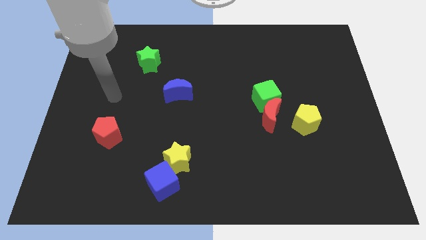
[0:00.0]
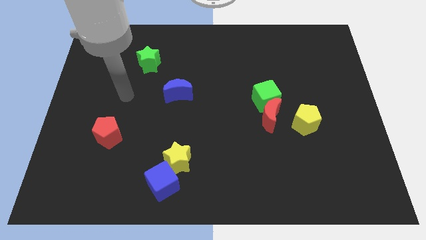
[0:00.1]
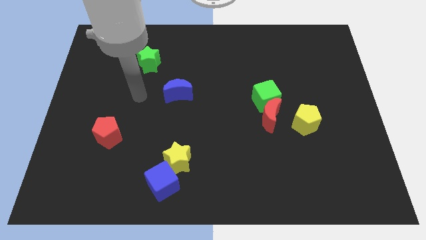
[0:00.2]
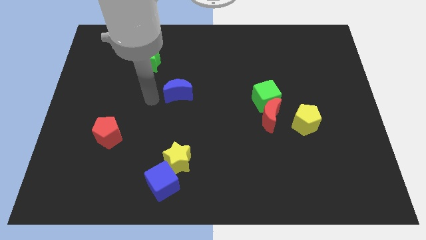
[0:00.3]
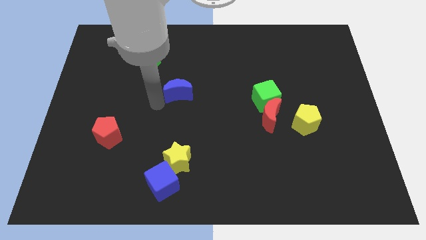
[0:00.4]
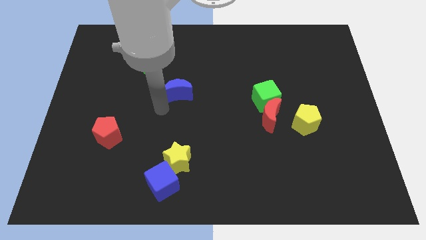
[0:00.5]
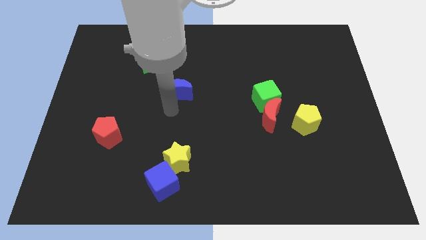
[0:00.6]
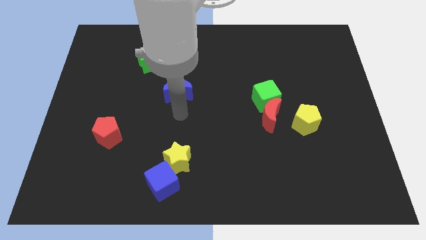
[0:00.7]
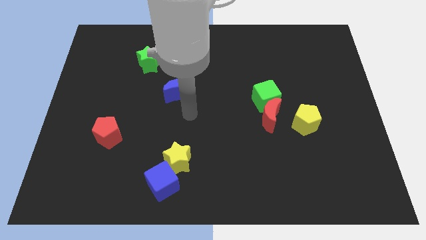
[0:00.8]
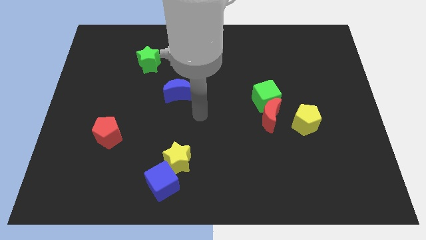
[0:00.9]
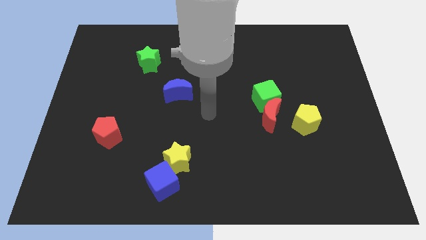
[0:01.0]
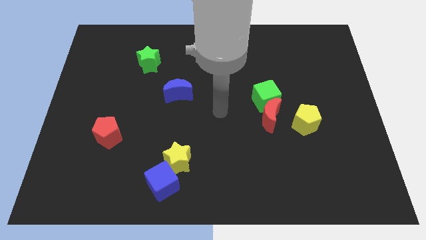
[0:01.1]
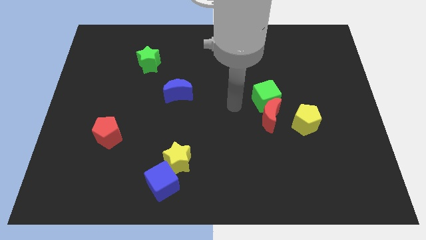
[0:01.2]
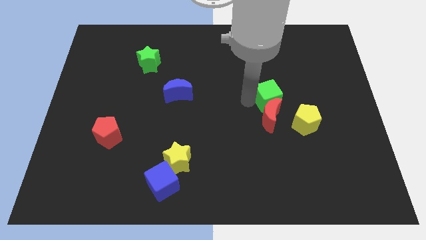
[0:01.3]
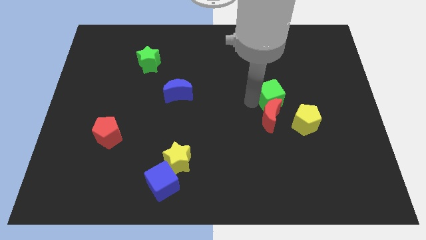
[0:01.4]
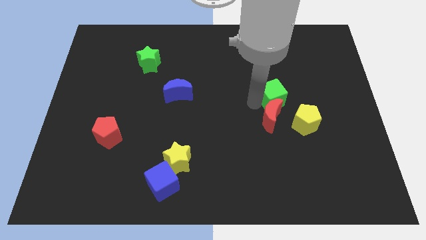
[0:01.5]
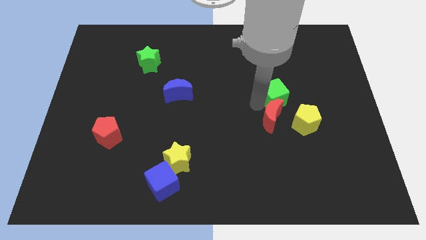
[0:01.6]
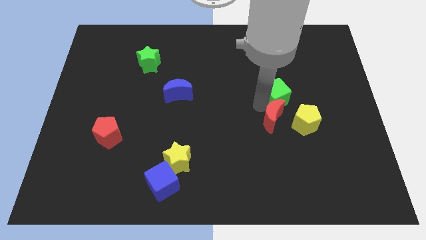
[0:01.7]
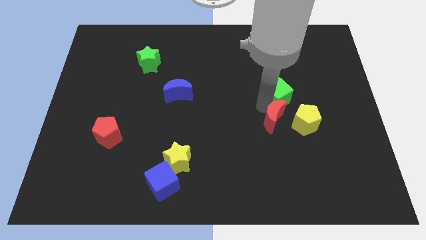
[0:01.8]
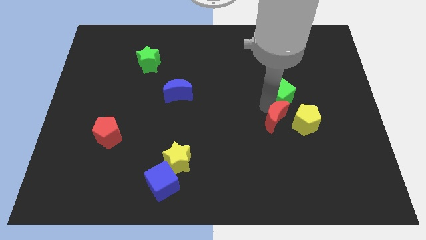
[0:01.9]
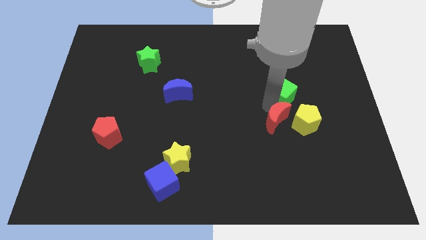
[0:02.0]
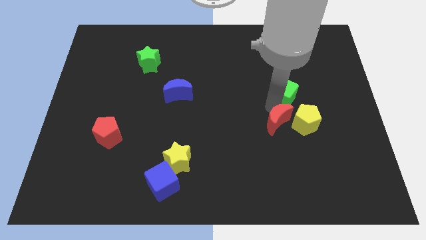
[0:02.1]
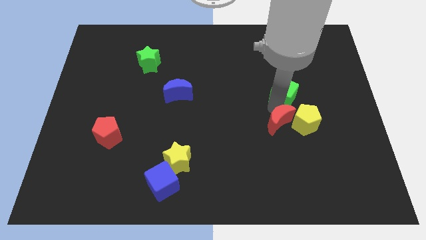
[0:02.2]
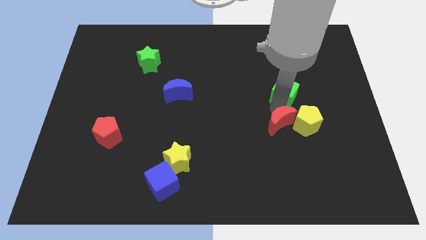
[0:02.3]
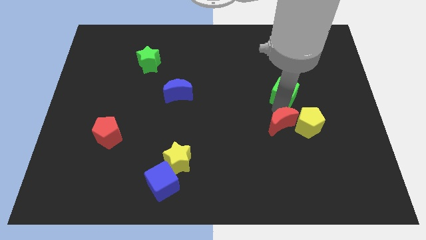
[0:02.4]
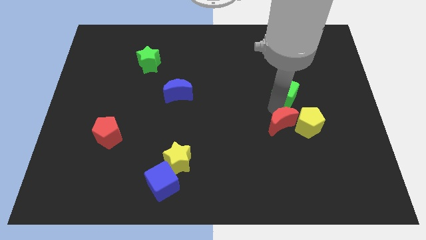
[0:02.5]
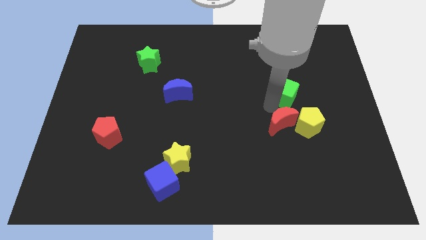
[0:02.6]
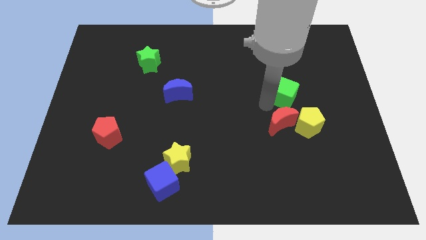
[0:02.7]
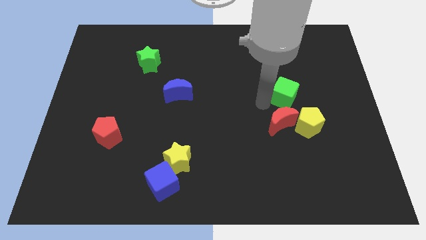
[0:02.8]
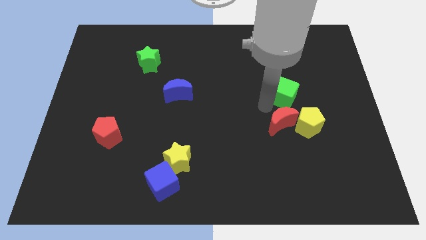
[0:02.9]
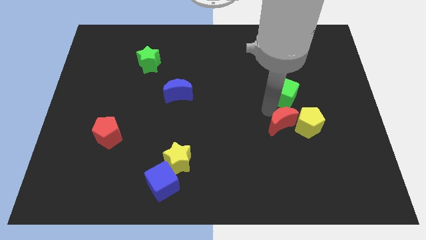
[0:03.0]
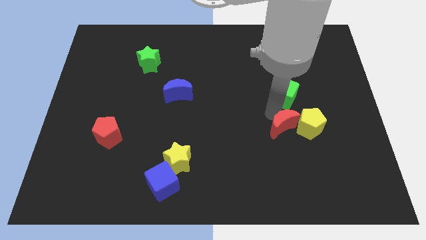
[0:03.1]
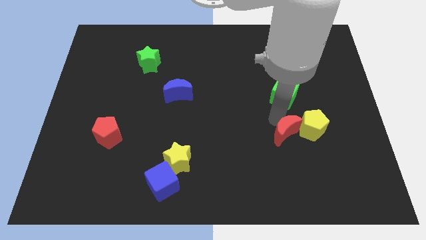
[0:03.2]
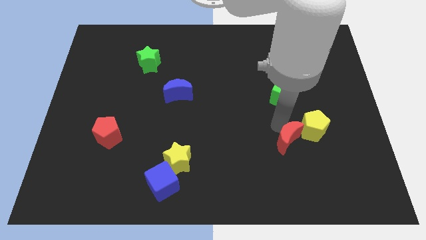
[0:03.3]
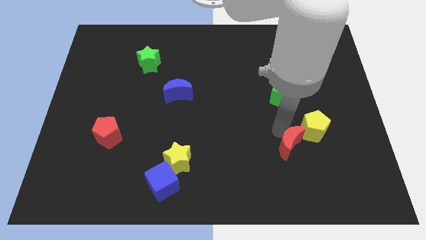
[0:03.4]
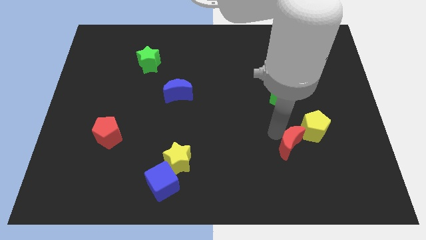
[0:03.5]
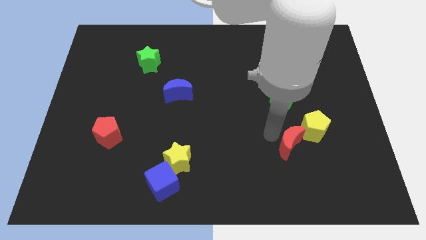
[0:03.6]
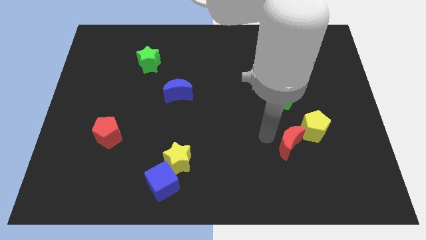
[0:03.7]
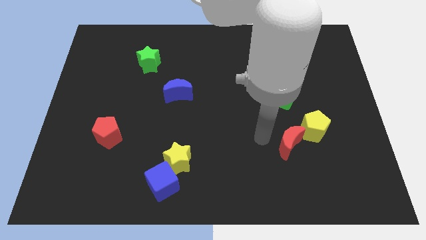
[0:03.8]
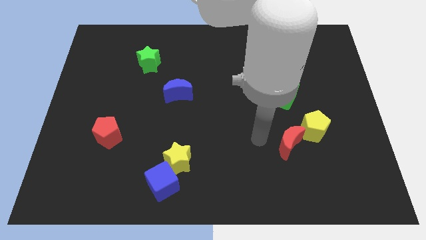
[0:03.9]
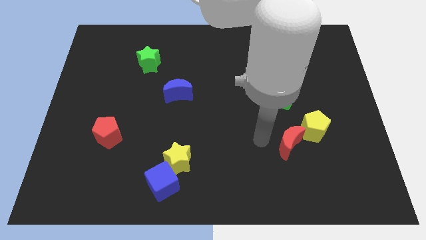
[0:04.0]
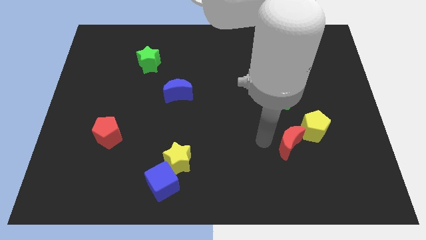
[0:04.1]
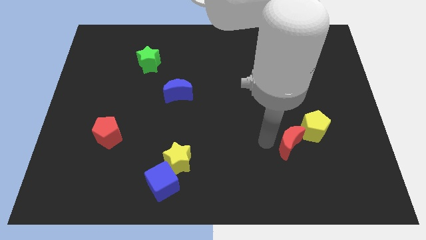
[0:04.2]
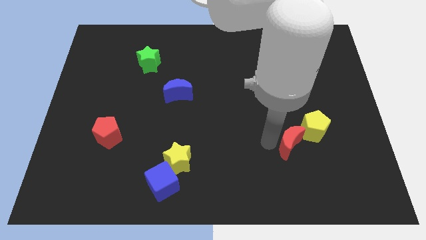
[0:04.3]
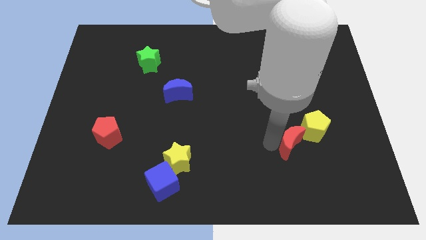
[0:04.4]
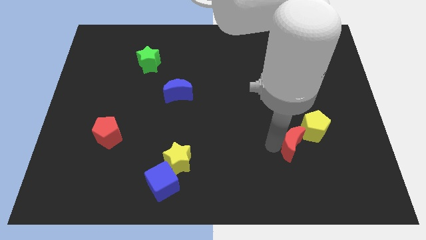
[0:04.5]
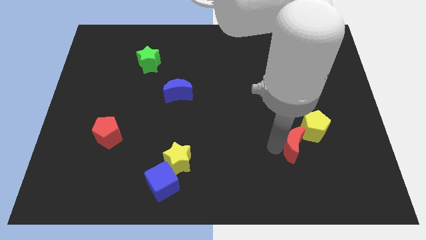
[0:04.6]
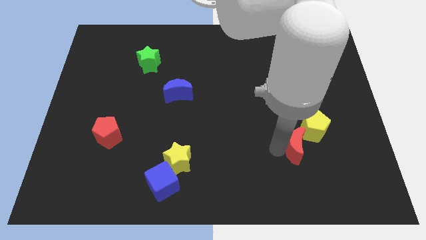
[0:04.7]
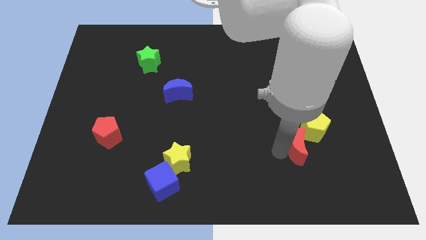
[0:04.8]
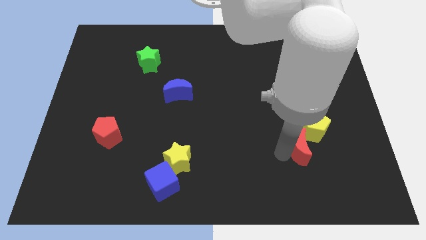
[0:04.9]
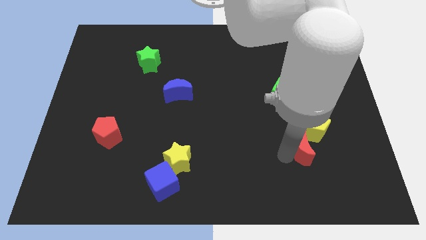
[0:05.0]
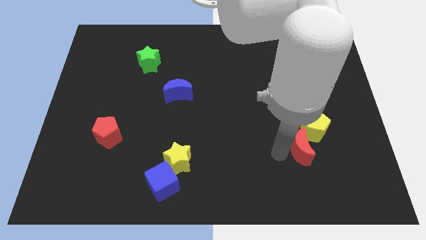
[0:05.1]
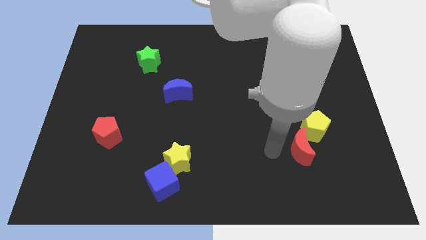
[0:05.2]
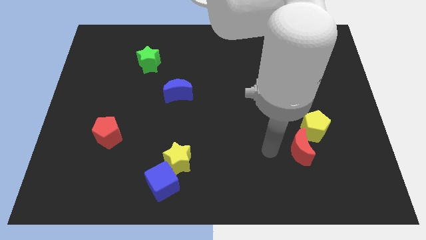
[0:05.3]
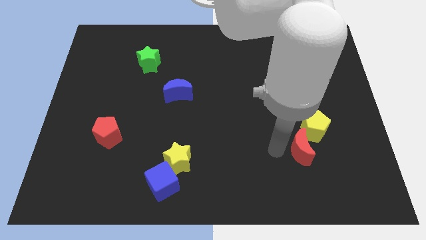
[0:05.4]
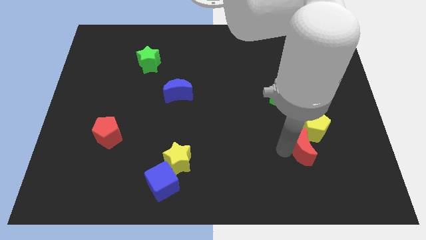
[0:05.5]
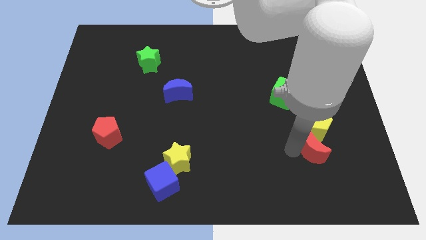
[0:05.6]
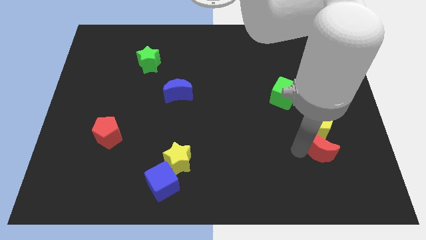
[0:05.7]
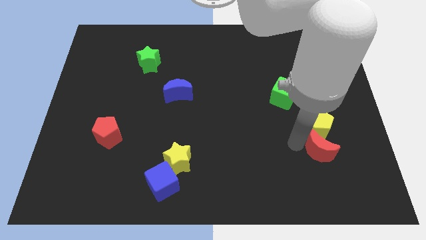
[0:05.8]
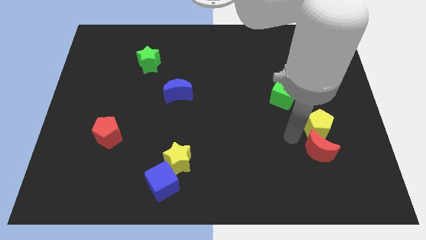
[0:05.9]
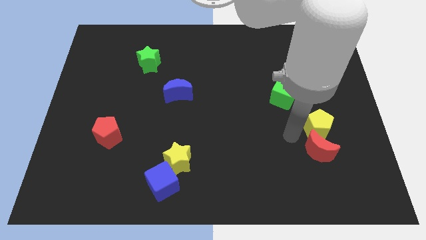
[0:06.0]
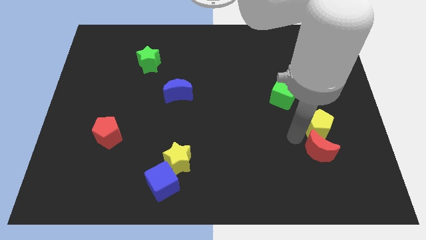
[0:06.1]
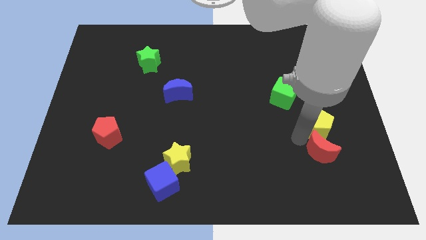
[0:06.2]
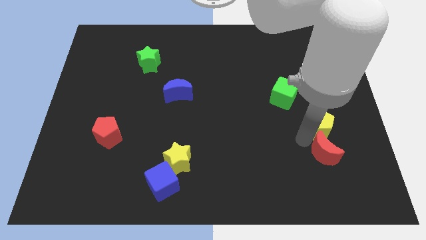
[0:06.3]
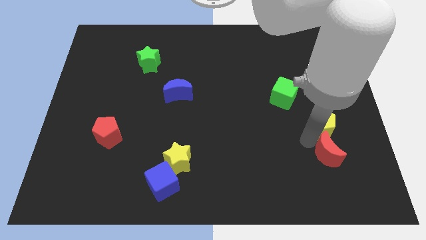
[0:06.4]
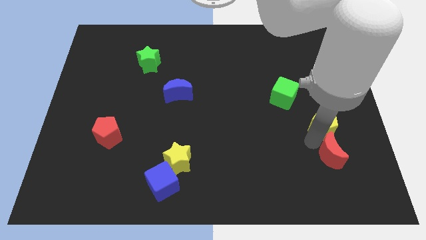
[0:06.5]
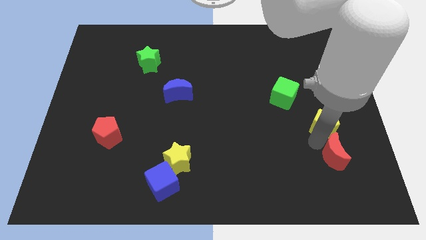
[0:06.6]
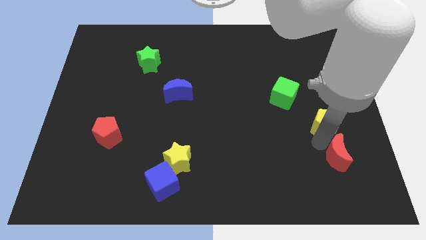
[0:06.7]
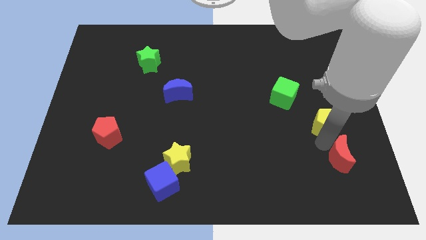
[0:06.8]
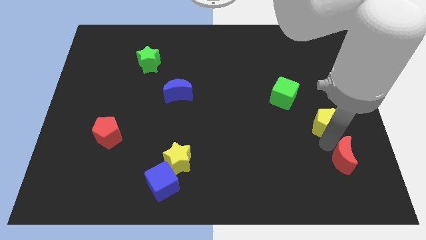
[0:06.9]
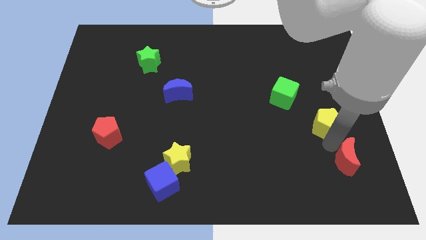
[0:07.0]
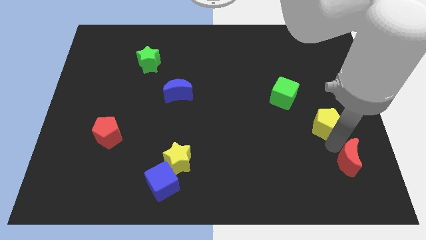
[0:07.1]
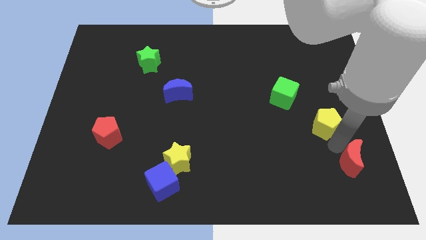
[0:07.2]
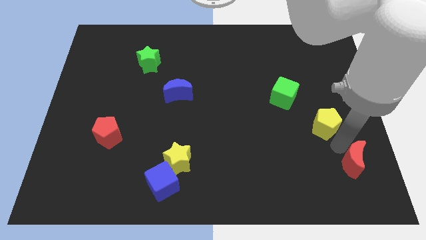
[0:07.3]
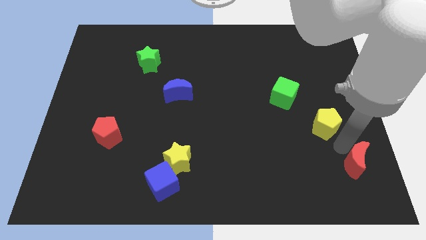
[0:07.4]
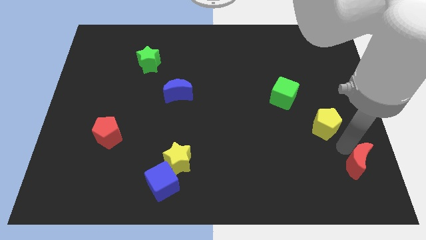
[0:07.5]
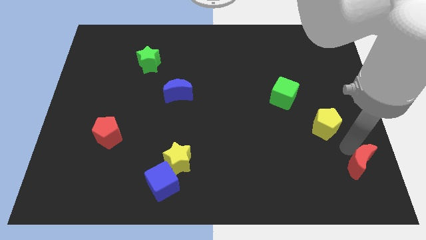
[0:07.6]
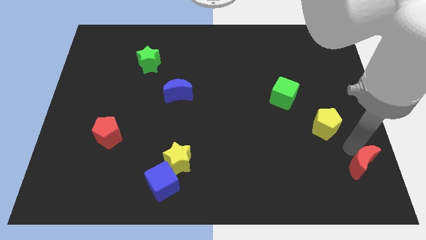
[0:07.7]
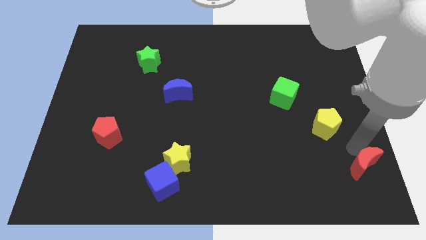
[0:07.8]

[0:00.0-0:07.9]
move the red moon to the bottom right
